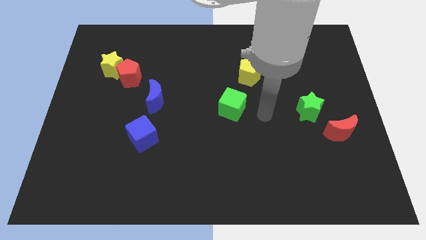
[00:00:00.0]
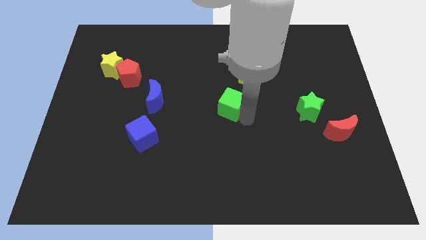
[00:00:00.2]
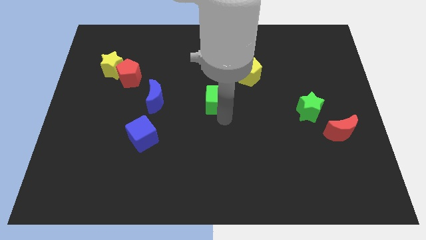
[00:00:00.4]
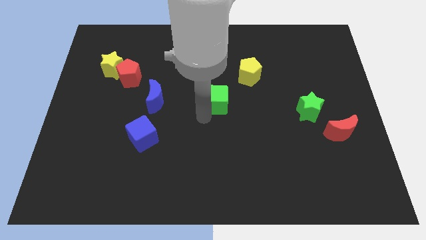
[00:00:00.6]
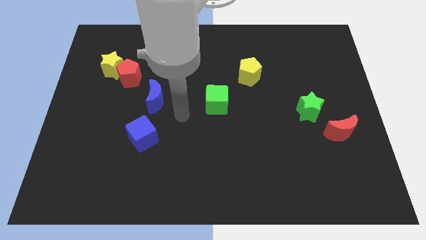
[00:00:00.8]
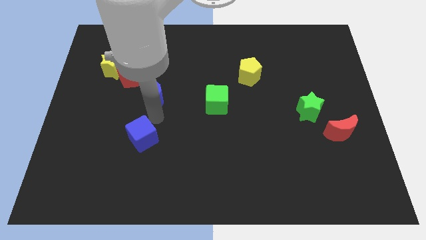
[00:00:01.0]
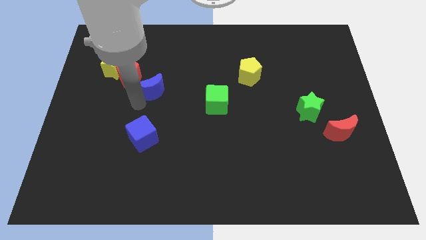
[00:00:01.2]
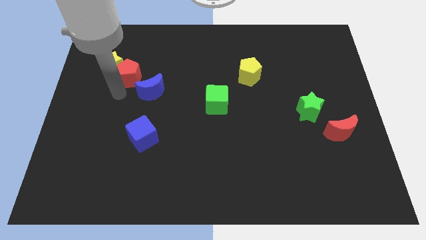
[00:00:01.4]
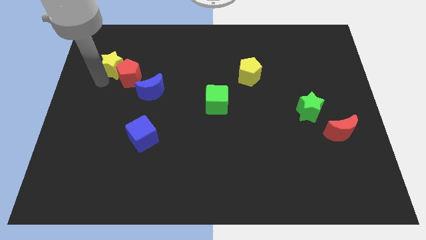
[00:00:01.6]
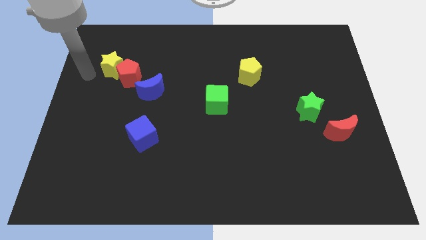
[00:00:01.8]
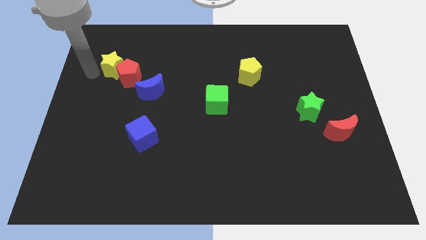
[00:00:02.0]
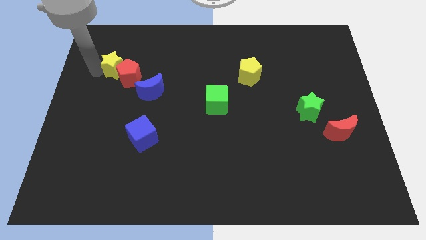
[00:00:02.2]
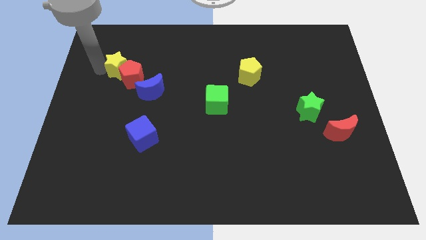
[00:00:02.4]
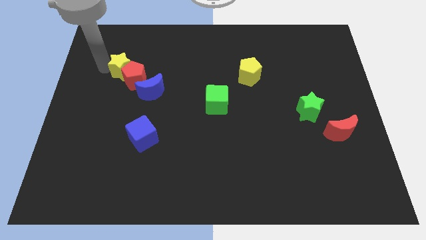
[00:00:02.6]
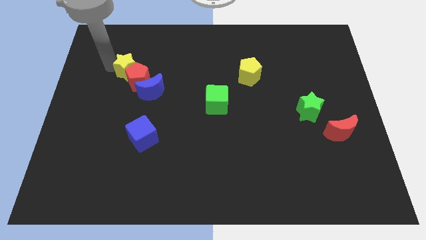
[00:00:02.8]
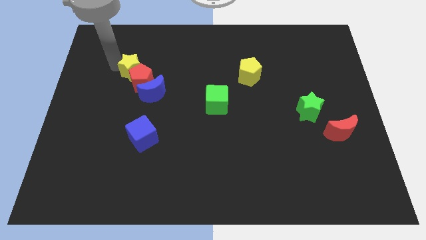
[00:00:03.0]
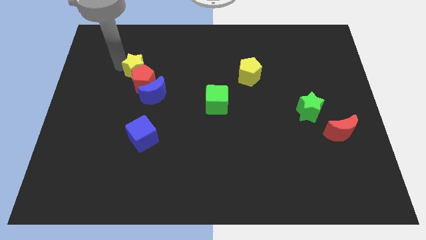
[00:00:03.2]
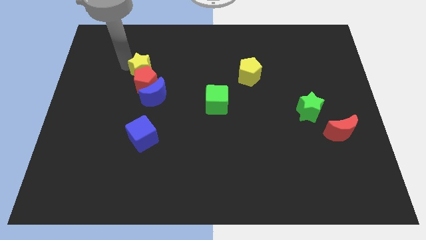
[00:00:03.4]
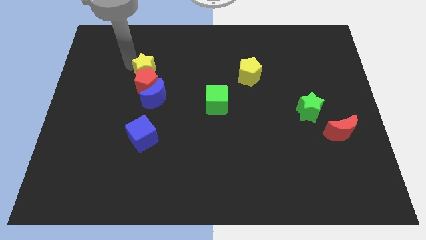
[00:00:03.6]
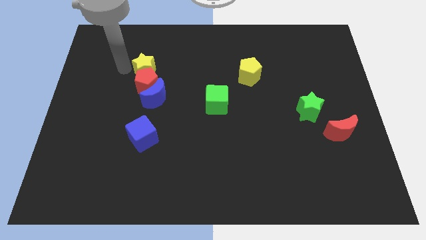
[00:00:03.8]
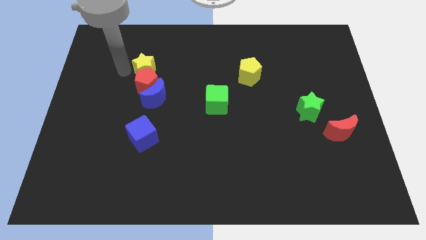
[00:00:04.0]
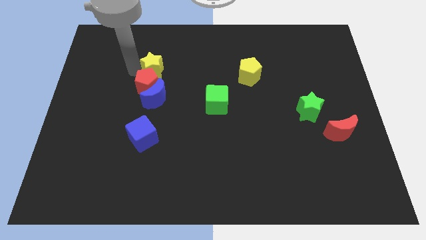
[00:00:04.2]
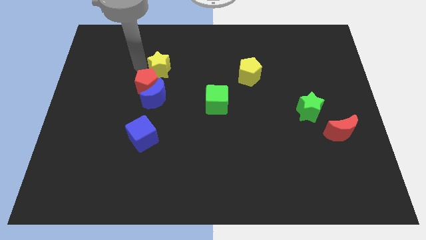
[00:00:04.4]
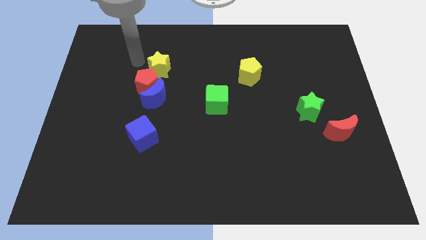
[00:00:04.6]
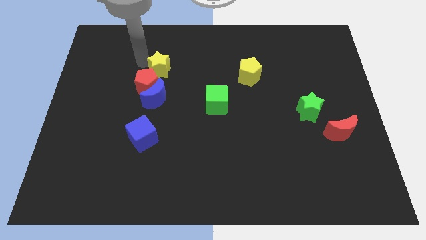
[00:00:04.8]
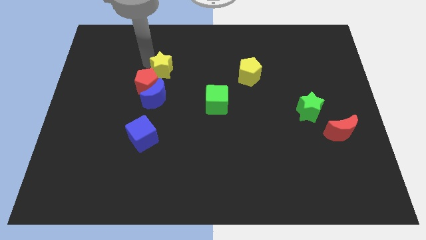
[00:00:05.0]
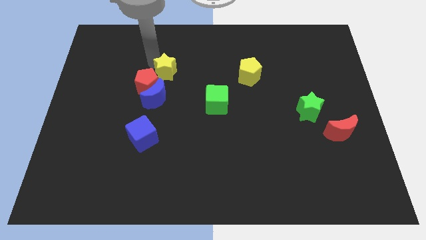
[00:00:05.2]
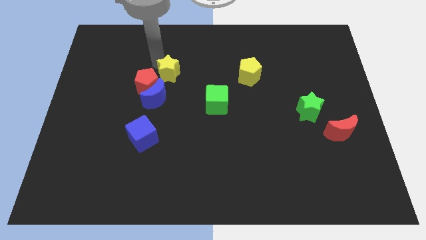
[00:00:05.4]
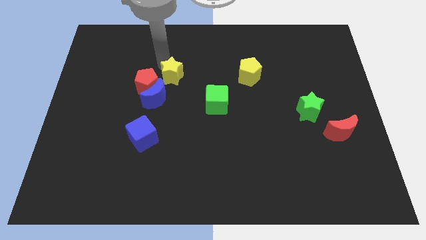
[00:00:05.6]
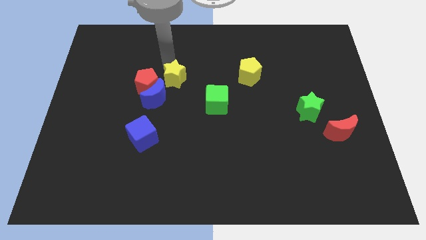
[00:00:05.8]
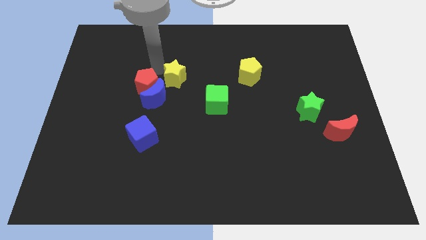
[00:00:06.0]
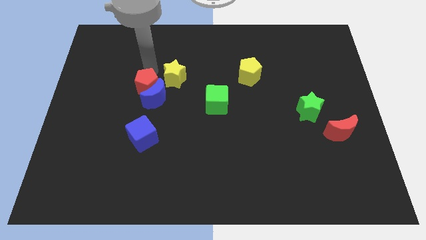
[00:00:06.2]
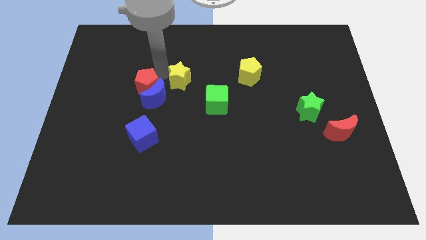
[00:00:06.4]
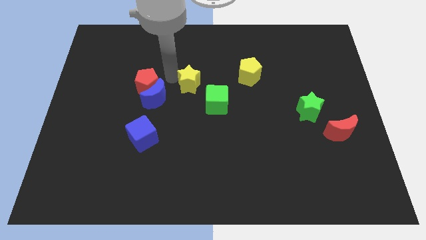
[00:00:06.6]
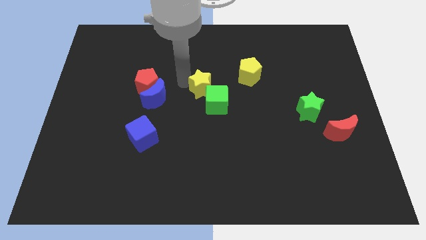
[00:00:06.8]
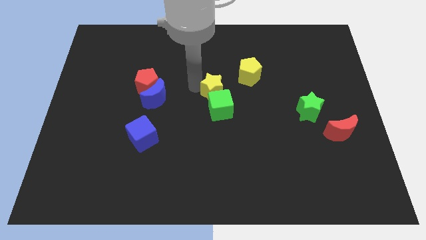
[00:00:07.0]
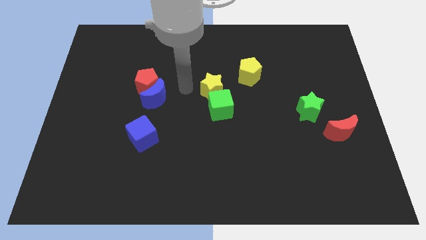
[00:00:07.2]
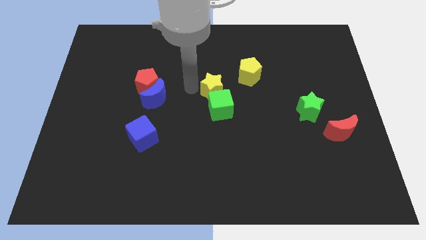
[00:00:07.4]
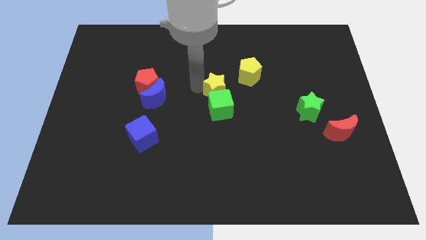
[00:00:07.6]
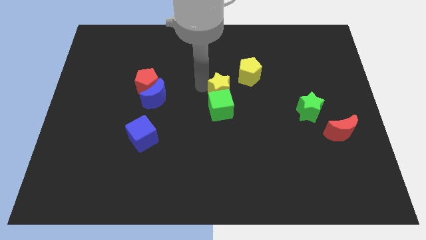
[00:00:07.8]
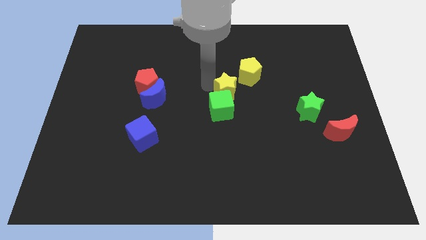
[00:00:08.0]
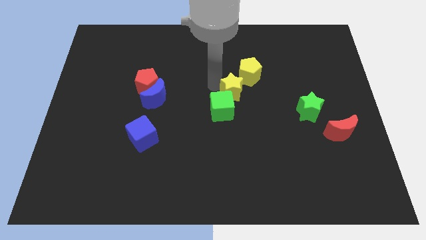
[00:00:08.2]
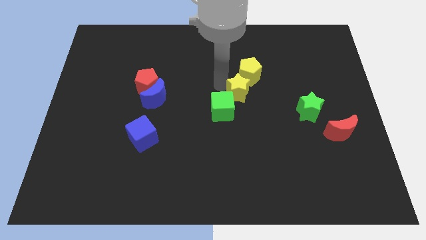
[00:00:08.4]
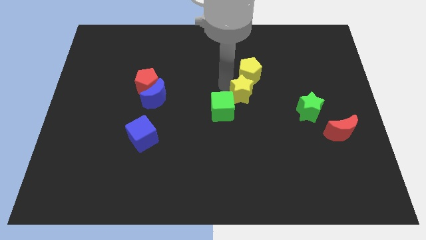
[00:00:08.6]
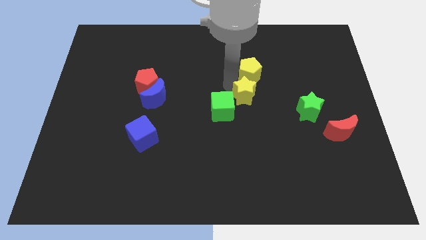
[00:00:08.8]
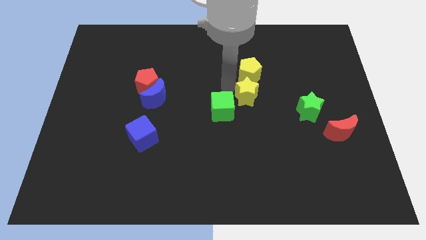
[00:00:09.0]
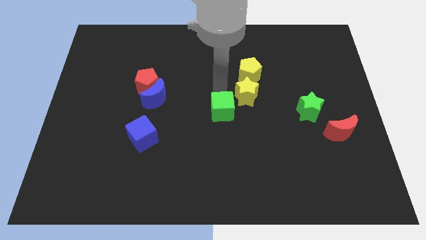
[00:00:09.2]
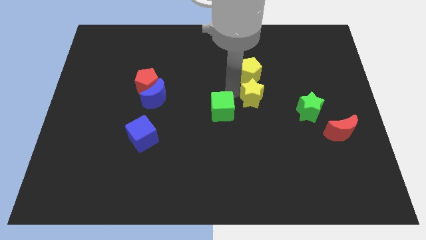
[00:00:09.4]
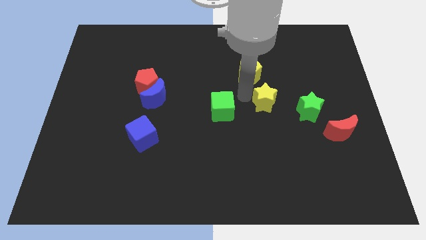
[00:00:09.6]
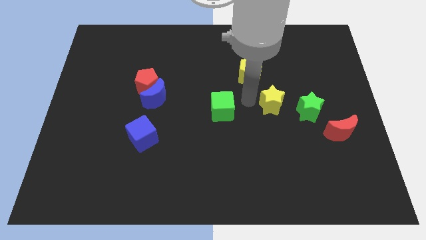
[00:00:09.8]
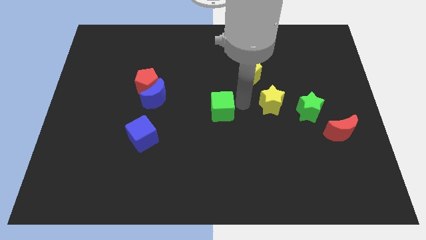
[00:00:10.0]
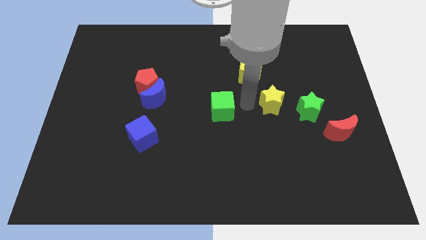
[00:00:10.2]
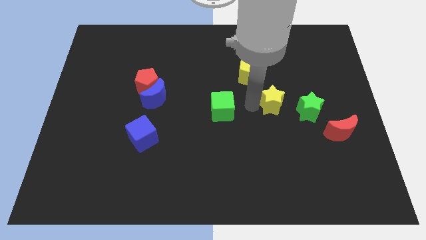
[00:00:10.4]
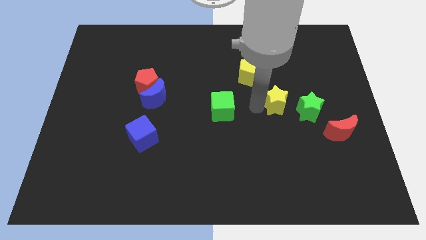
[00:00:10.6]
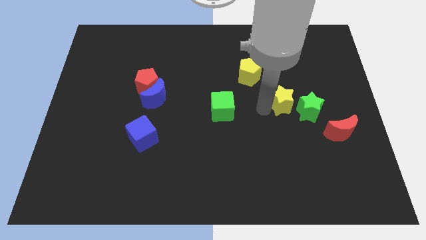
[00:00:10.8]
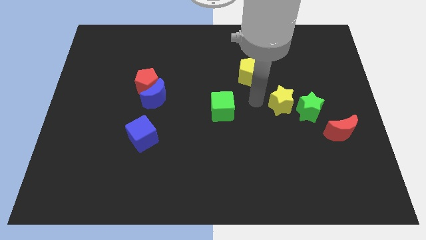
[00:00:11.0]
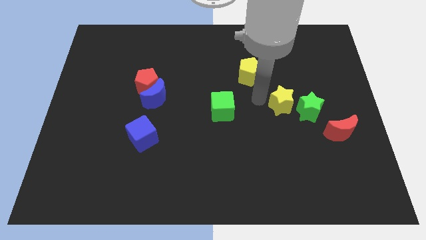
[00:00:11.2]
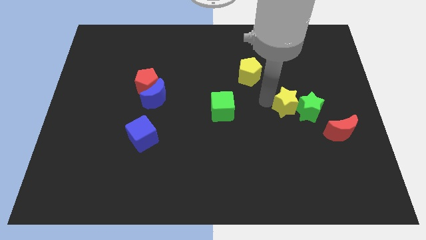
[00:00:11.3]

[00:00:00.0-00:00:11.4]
move the yellow star to the green star

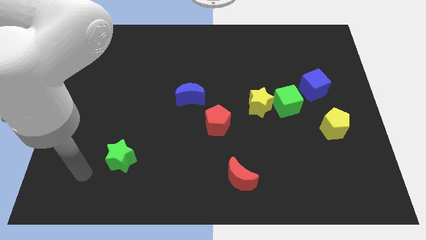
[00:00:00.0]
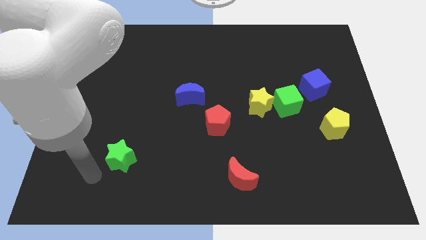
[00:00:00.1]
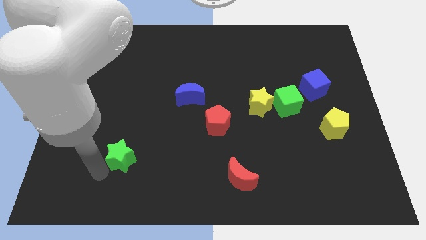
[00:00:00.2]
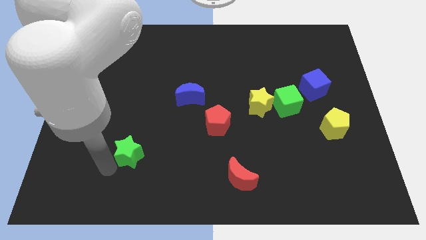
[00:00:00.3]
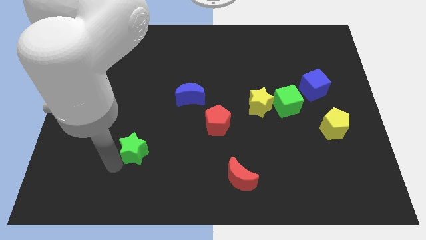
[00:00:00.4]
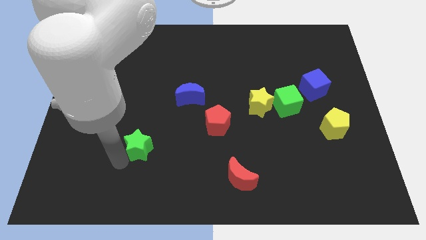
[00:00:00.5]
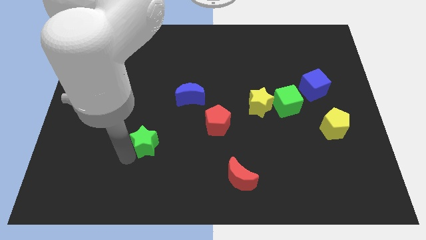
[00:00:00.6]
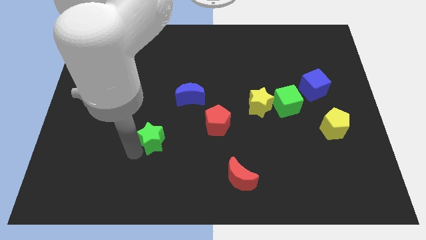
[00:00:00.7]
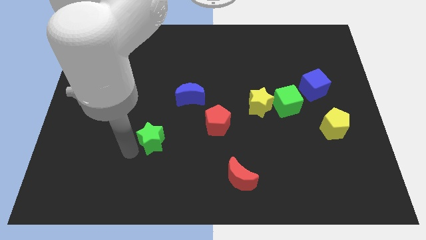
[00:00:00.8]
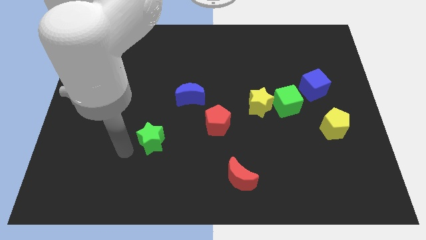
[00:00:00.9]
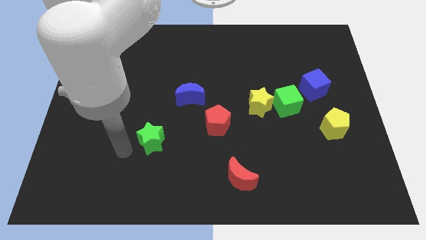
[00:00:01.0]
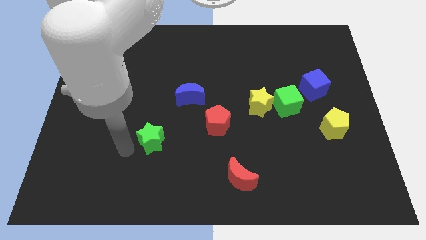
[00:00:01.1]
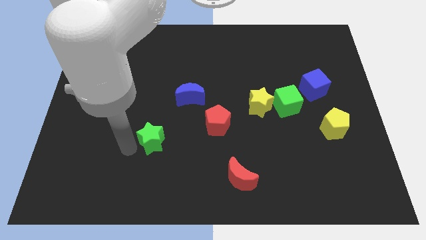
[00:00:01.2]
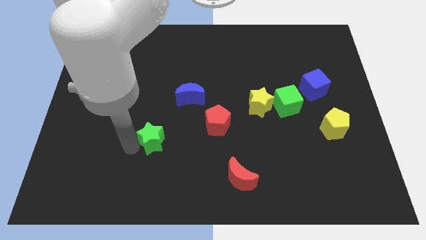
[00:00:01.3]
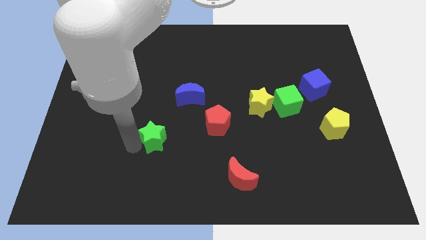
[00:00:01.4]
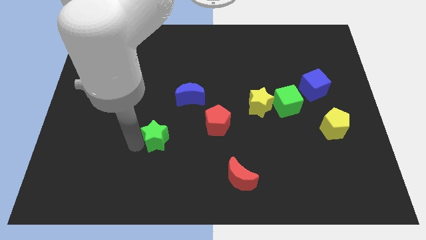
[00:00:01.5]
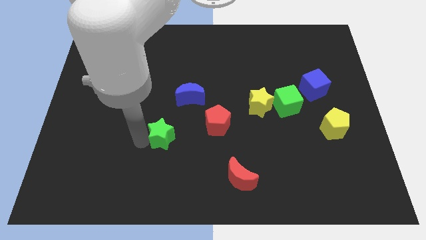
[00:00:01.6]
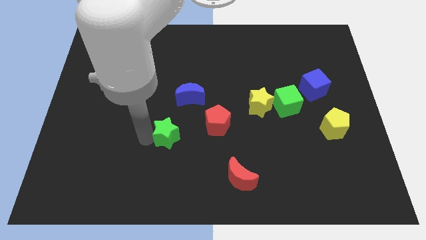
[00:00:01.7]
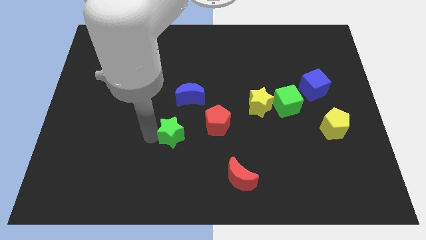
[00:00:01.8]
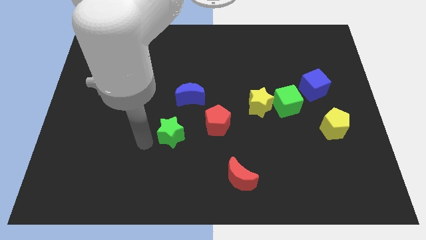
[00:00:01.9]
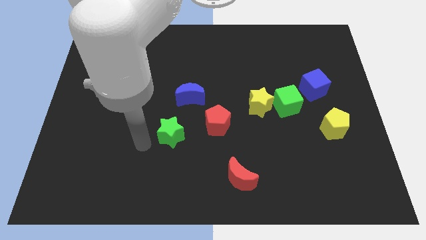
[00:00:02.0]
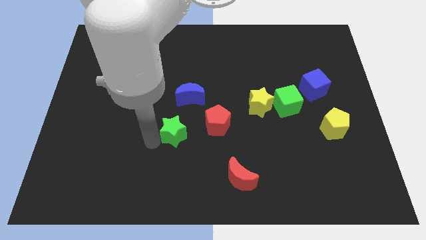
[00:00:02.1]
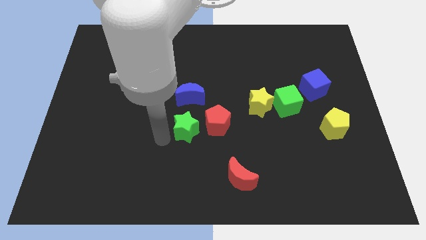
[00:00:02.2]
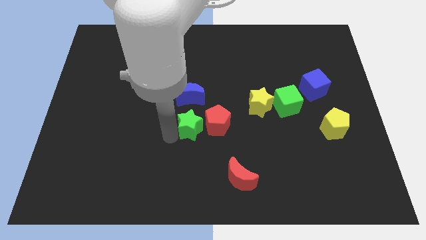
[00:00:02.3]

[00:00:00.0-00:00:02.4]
slide the green star next to the red pentagon
